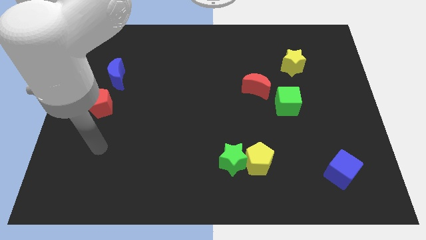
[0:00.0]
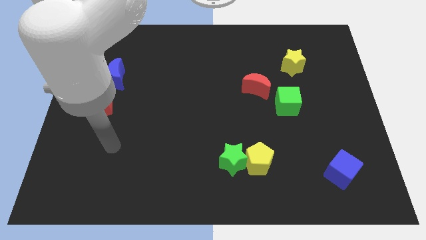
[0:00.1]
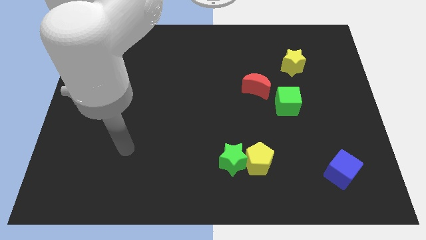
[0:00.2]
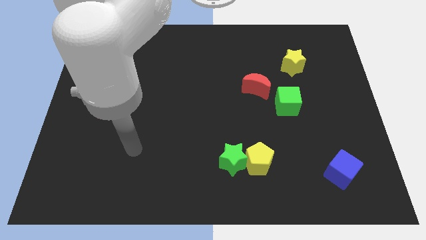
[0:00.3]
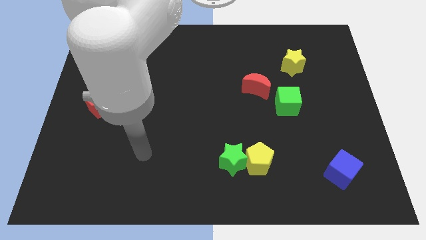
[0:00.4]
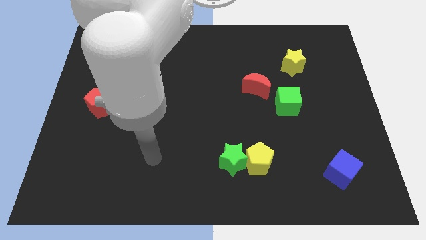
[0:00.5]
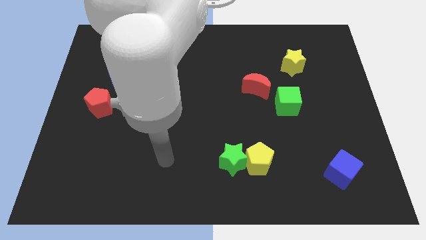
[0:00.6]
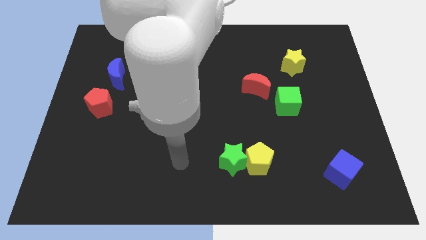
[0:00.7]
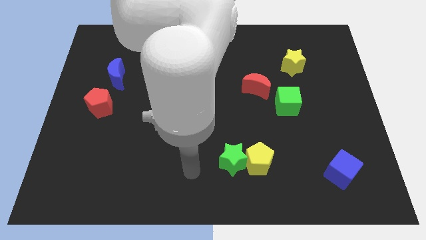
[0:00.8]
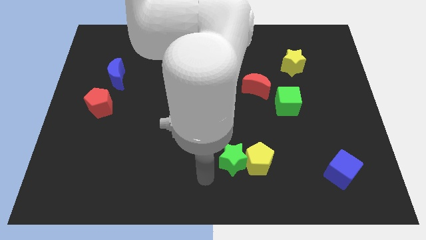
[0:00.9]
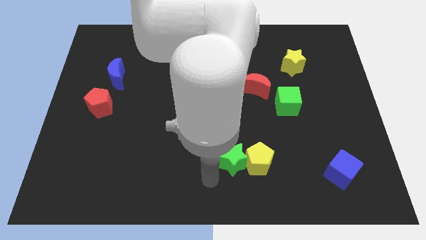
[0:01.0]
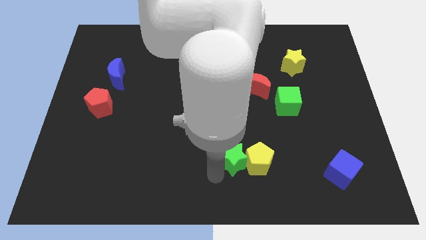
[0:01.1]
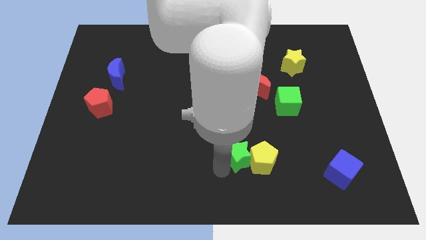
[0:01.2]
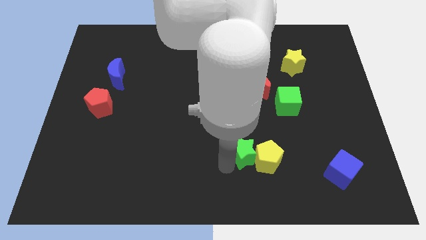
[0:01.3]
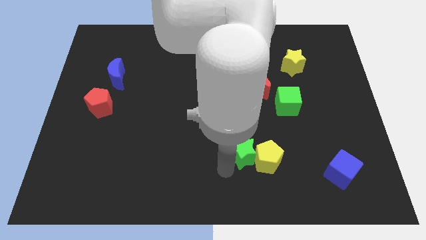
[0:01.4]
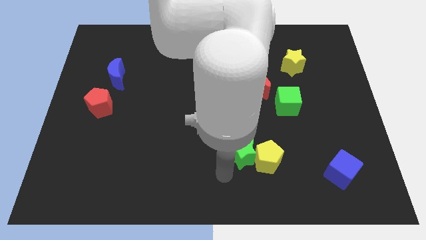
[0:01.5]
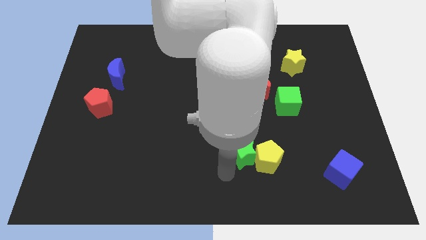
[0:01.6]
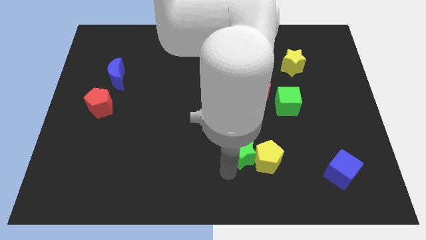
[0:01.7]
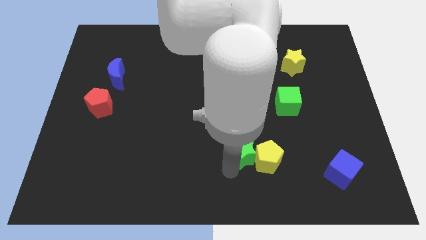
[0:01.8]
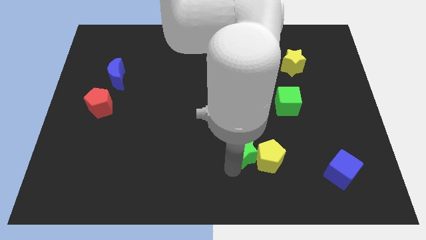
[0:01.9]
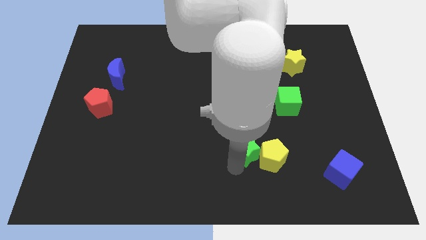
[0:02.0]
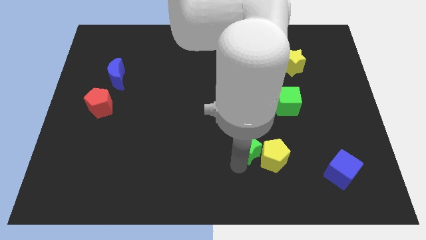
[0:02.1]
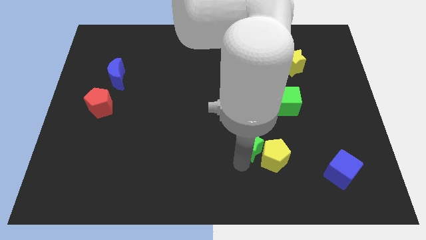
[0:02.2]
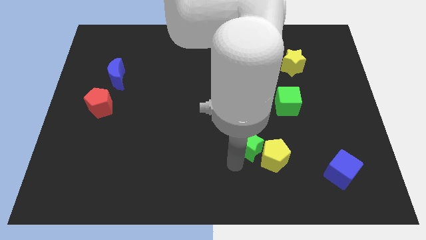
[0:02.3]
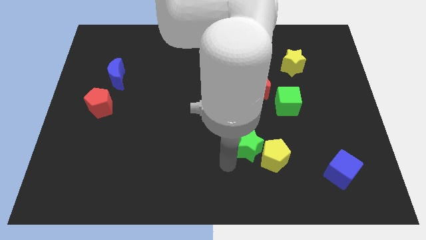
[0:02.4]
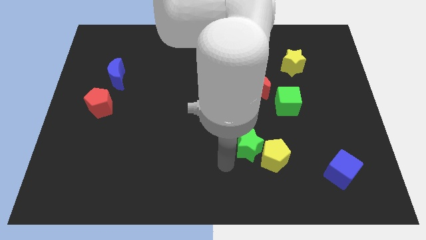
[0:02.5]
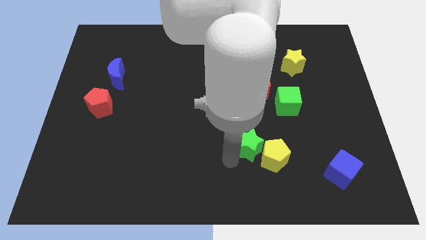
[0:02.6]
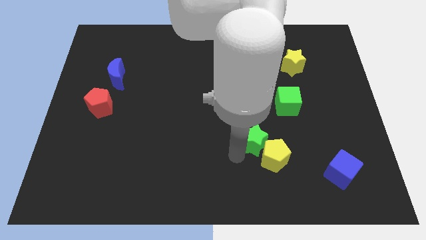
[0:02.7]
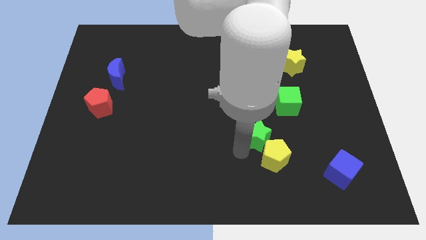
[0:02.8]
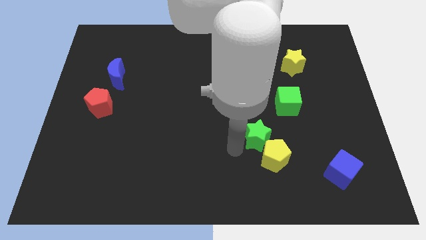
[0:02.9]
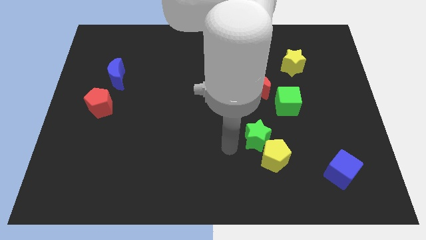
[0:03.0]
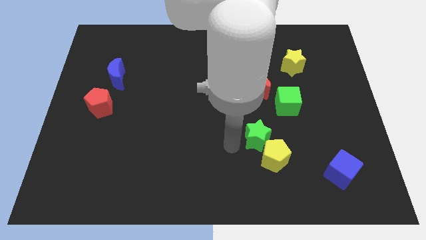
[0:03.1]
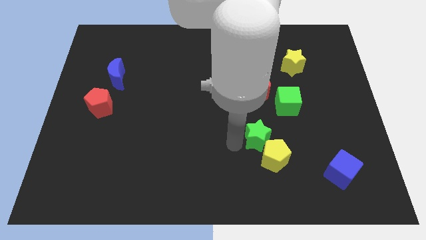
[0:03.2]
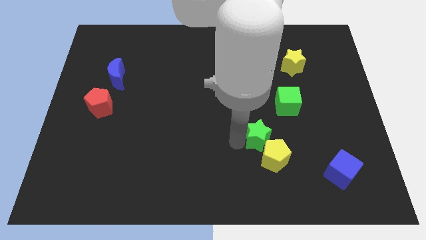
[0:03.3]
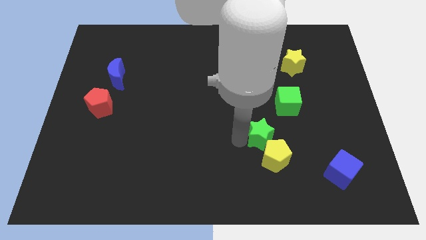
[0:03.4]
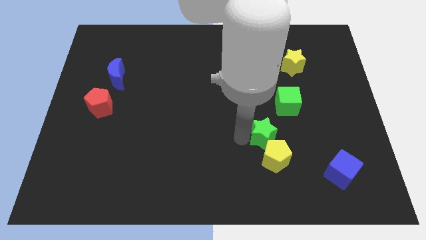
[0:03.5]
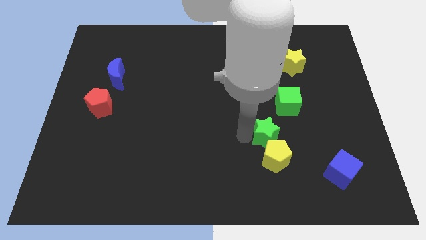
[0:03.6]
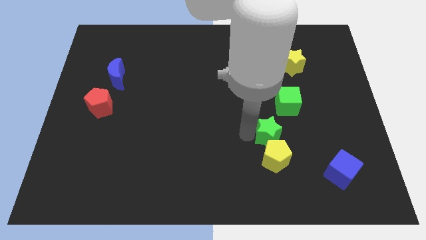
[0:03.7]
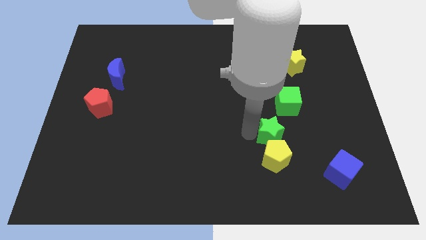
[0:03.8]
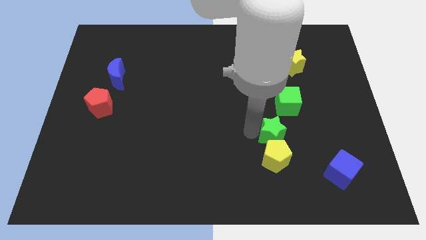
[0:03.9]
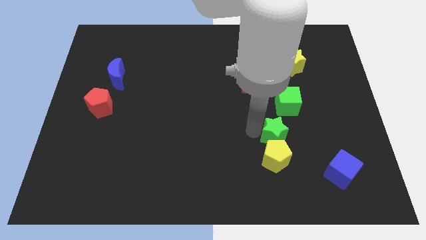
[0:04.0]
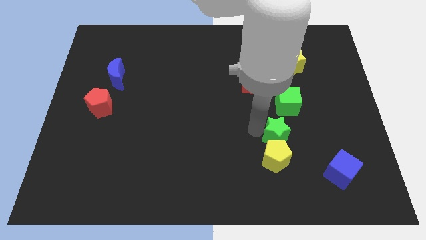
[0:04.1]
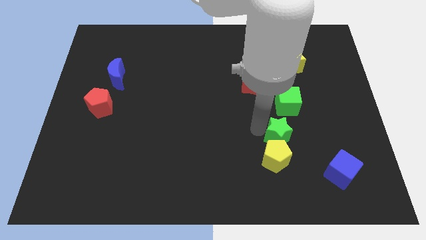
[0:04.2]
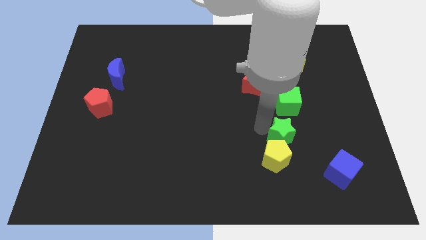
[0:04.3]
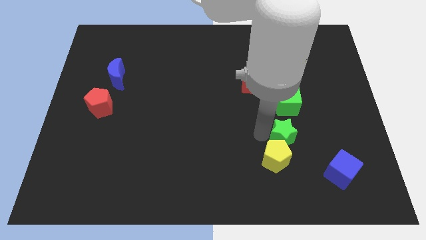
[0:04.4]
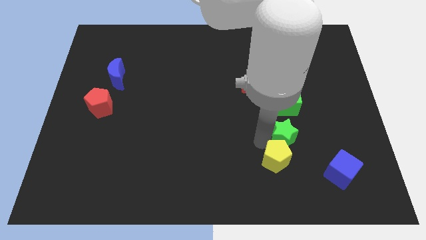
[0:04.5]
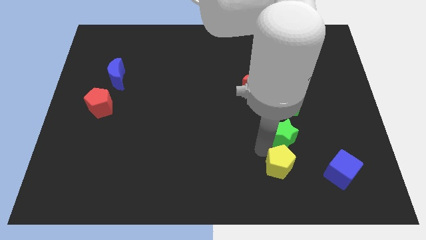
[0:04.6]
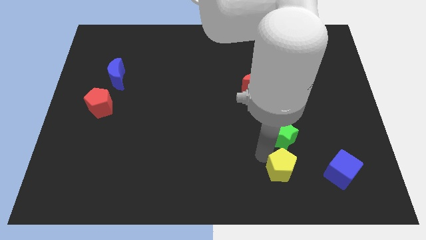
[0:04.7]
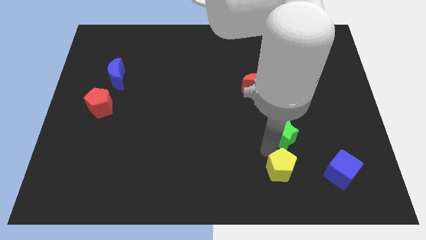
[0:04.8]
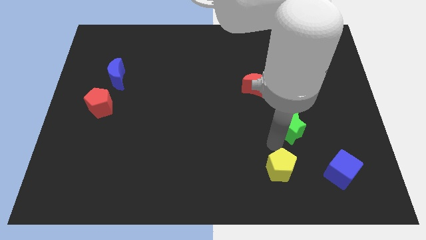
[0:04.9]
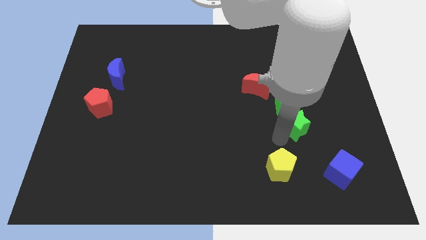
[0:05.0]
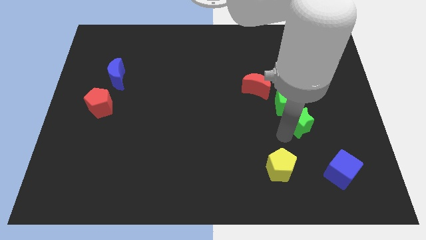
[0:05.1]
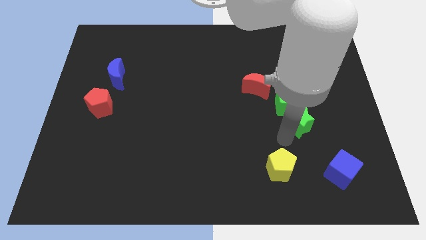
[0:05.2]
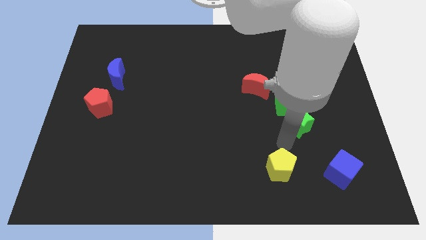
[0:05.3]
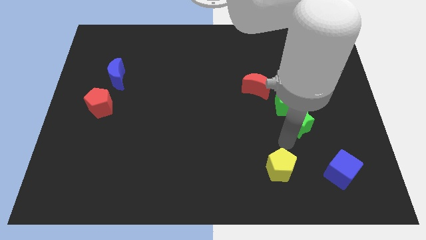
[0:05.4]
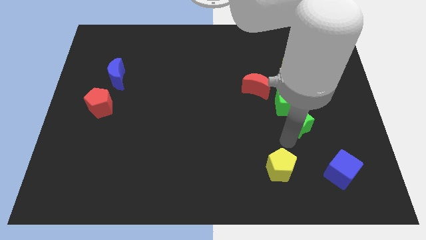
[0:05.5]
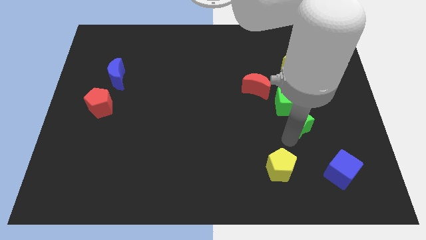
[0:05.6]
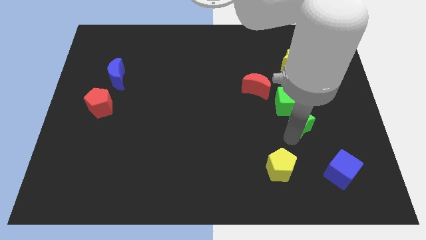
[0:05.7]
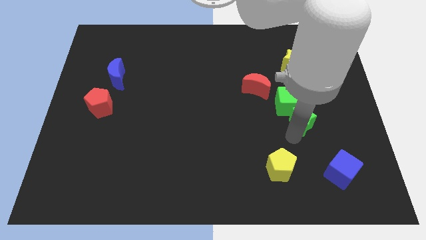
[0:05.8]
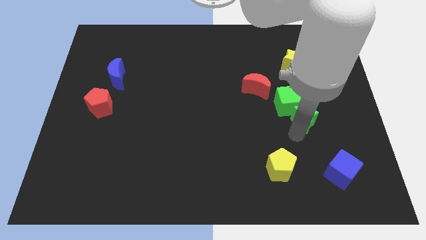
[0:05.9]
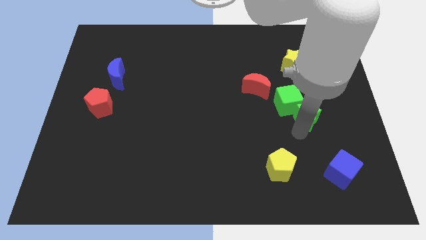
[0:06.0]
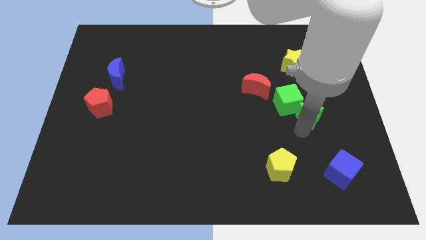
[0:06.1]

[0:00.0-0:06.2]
slide the green star upwards and to the right diagonally

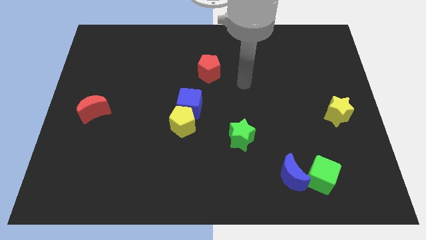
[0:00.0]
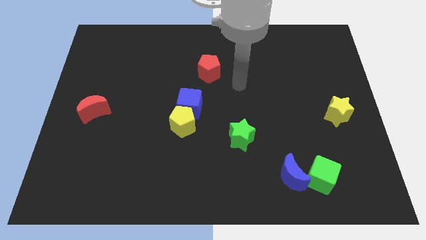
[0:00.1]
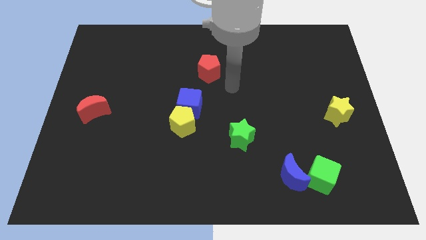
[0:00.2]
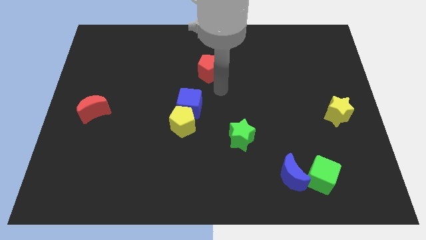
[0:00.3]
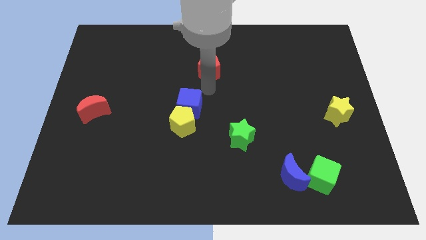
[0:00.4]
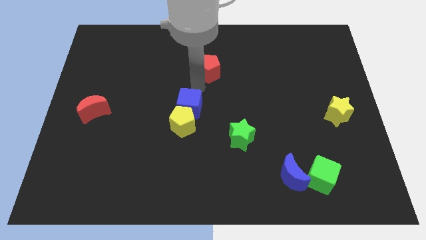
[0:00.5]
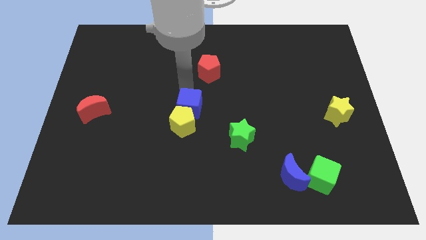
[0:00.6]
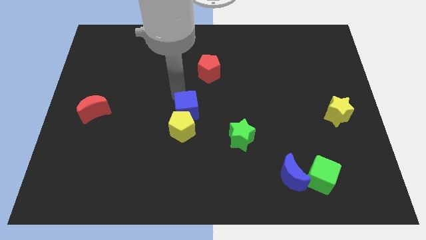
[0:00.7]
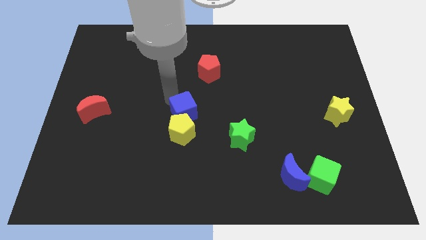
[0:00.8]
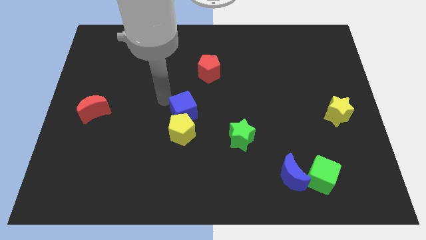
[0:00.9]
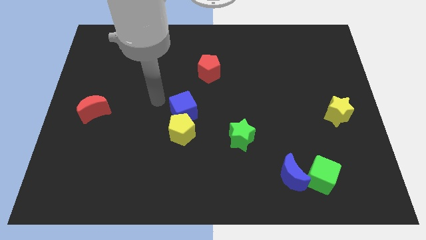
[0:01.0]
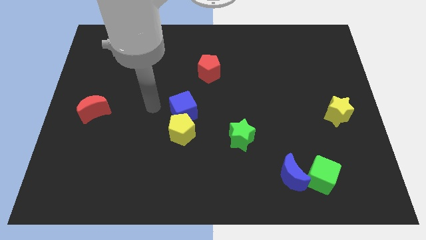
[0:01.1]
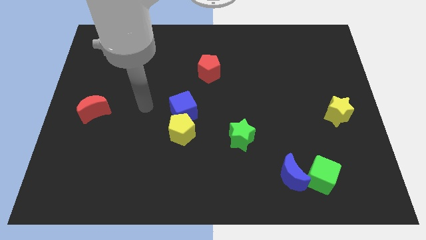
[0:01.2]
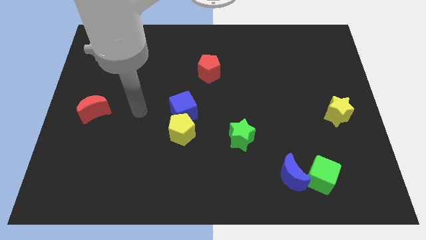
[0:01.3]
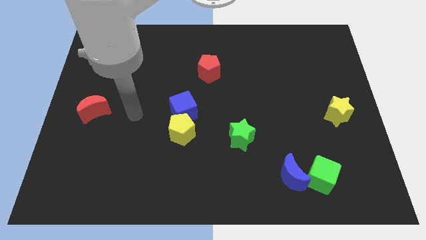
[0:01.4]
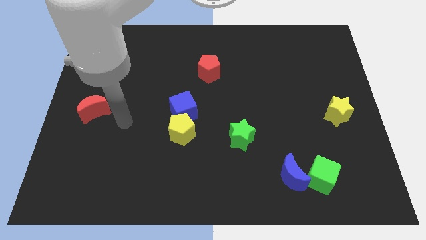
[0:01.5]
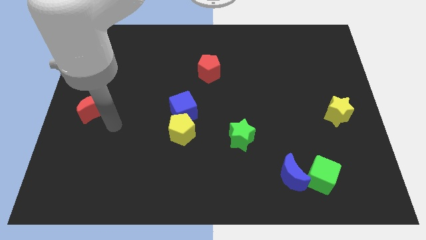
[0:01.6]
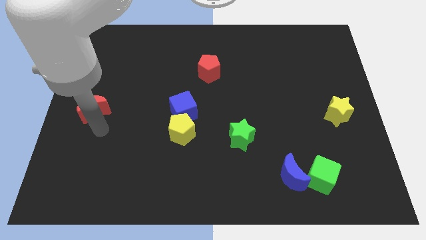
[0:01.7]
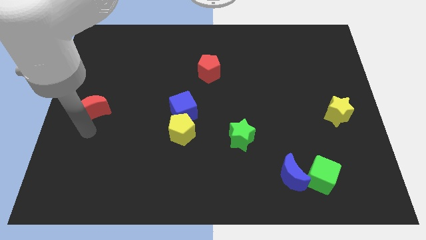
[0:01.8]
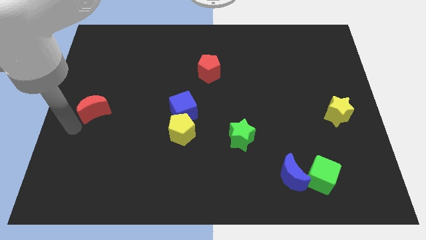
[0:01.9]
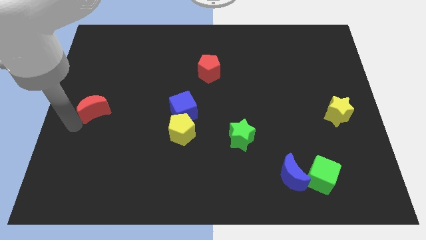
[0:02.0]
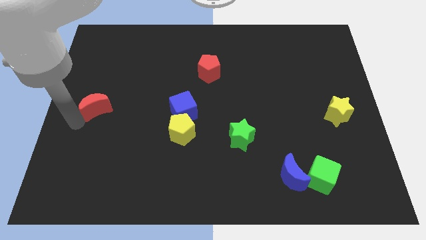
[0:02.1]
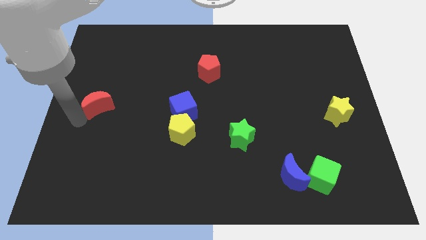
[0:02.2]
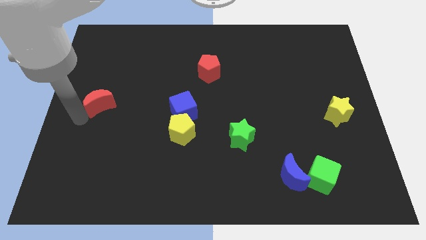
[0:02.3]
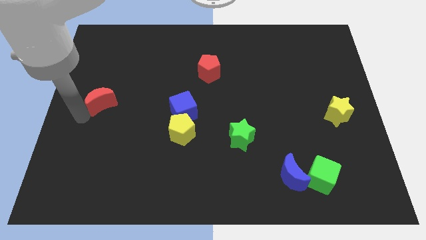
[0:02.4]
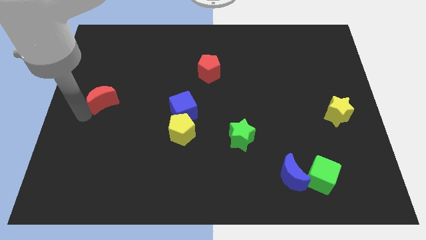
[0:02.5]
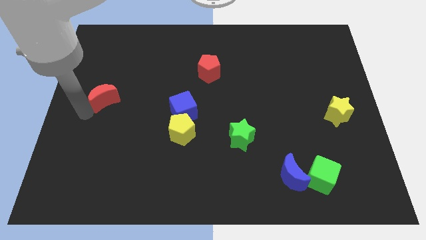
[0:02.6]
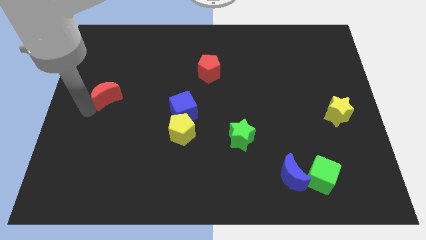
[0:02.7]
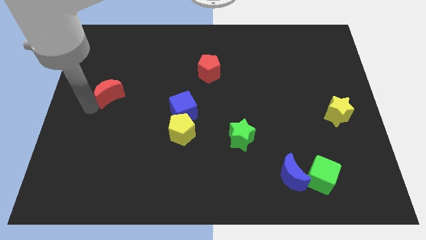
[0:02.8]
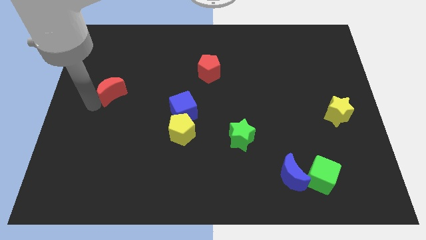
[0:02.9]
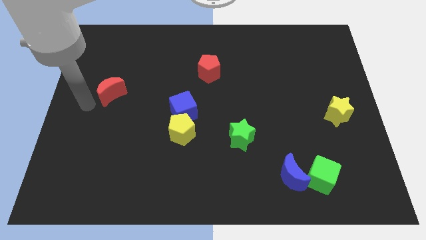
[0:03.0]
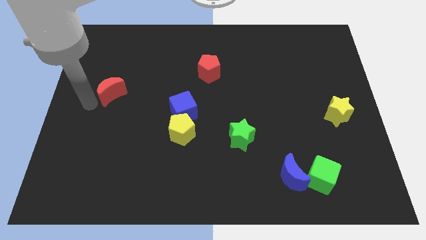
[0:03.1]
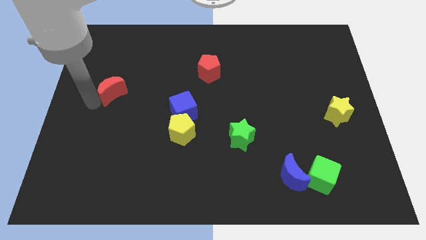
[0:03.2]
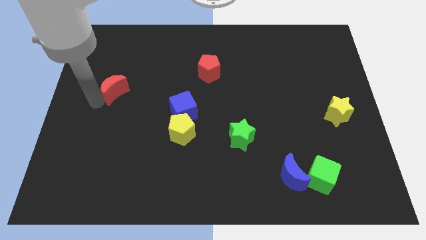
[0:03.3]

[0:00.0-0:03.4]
slightly move the red moon diagonally upwards and right
